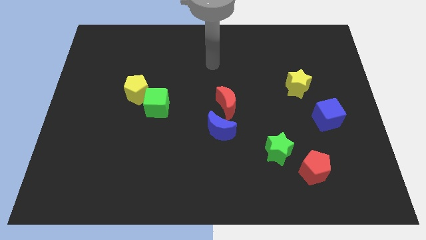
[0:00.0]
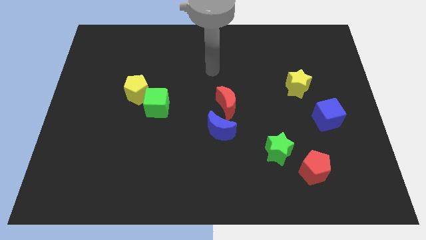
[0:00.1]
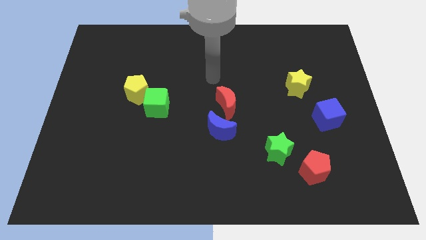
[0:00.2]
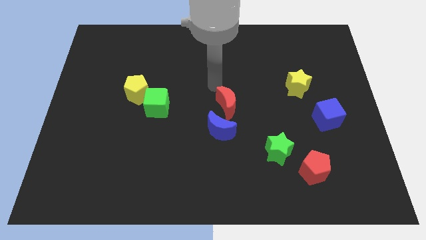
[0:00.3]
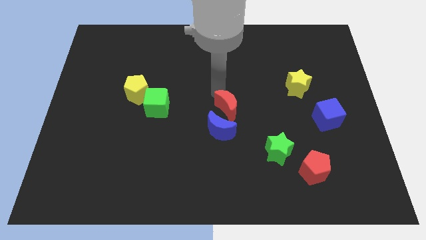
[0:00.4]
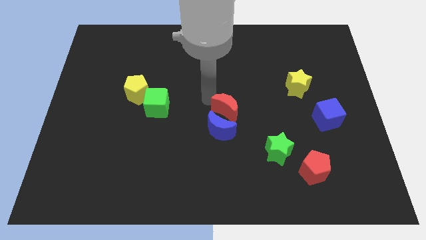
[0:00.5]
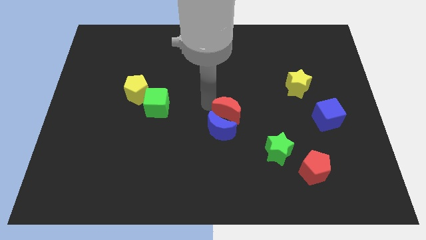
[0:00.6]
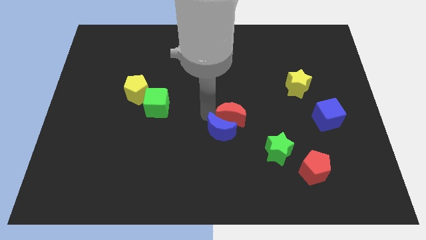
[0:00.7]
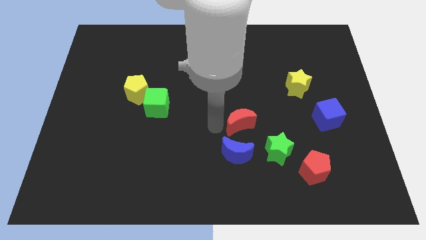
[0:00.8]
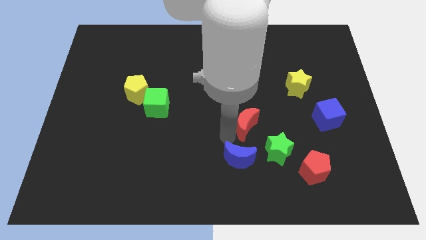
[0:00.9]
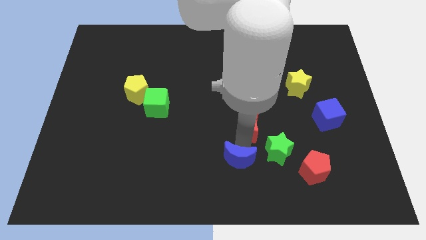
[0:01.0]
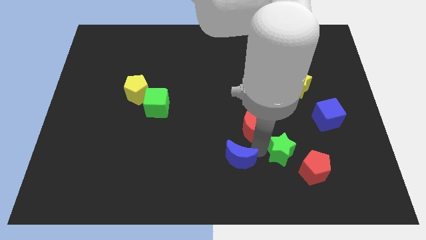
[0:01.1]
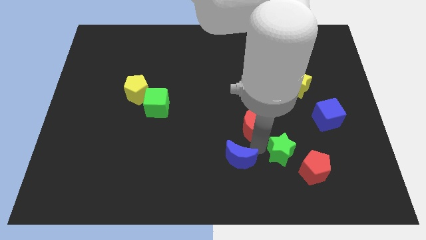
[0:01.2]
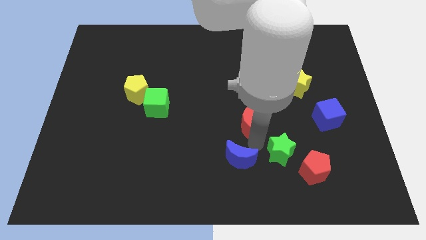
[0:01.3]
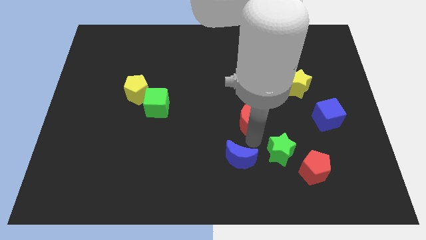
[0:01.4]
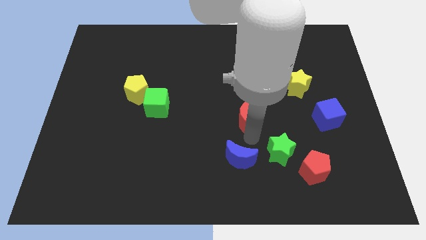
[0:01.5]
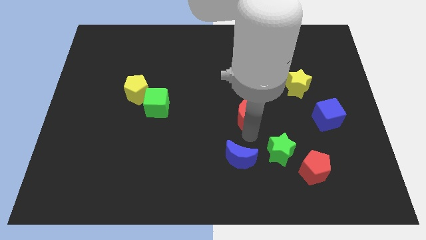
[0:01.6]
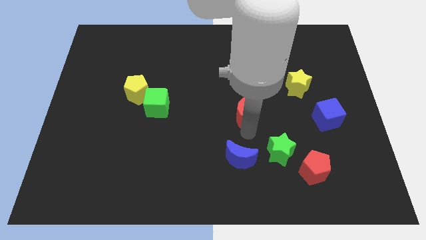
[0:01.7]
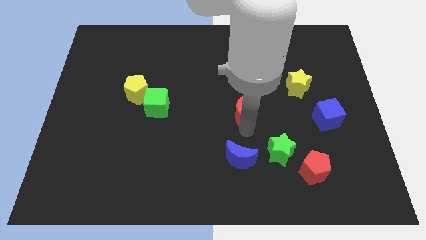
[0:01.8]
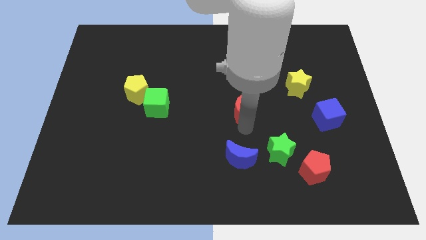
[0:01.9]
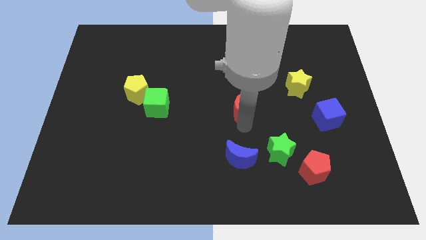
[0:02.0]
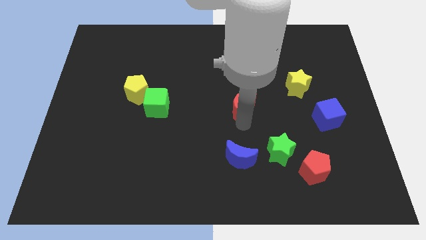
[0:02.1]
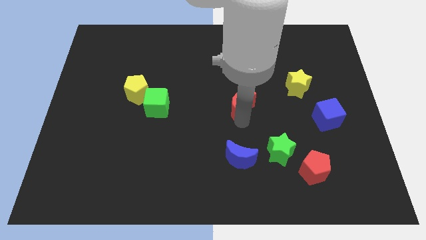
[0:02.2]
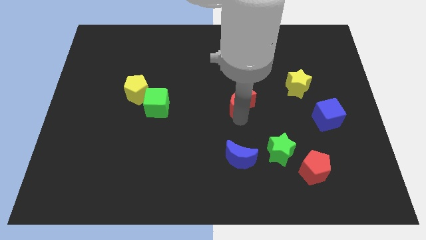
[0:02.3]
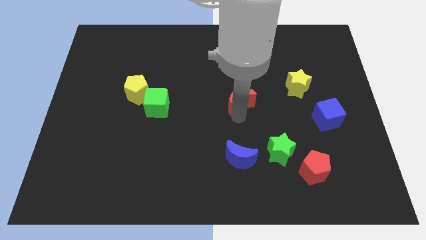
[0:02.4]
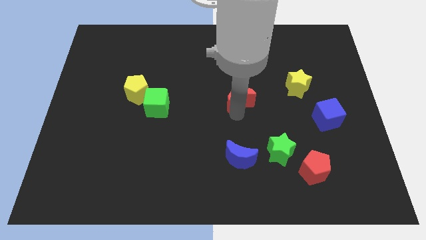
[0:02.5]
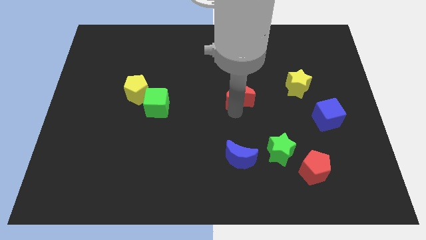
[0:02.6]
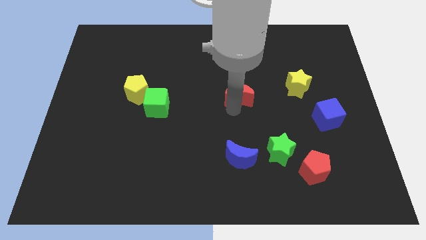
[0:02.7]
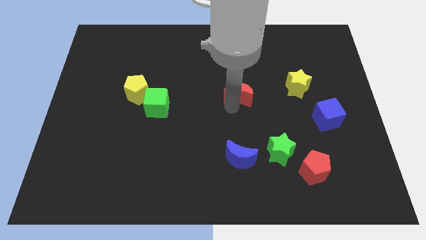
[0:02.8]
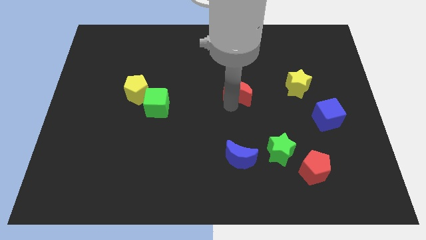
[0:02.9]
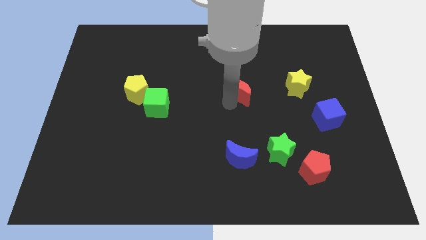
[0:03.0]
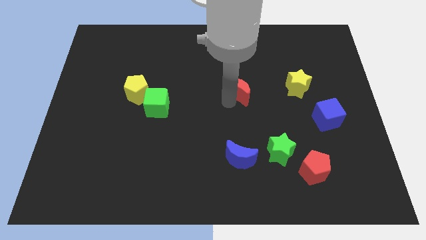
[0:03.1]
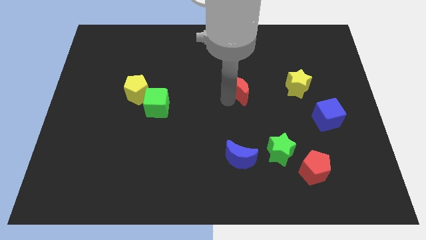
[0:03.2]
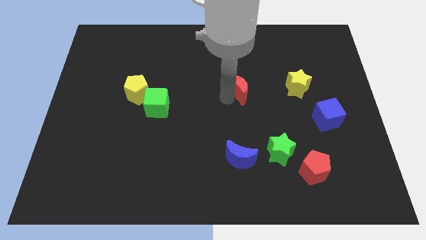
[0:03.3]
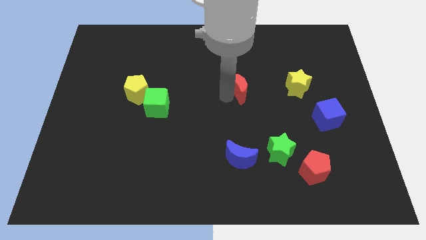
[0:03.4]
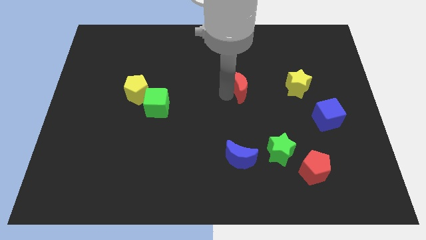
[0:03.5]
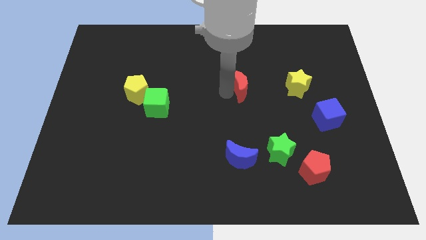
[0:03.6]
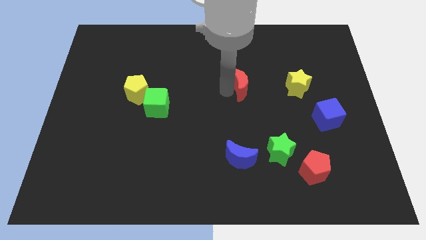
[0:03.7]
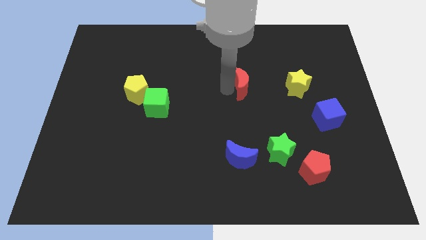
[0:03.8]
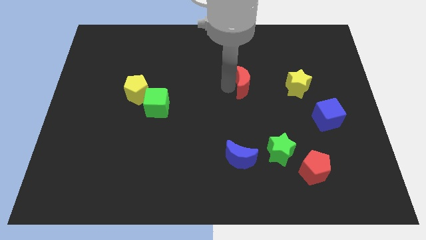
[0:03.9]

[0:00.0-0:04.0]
push the red moon a little upwards and then right

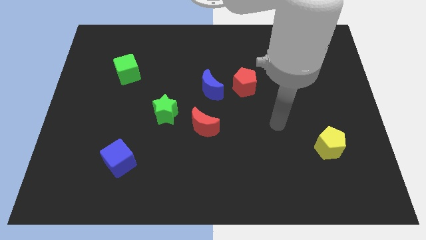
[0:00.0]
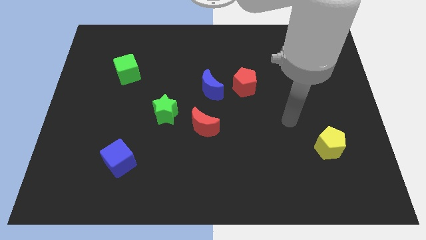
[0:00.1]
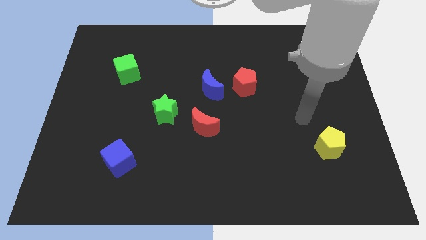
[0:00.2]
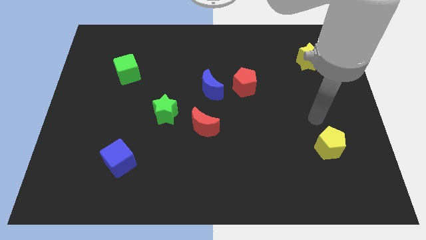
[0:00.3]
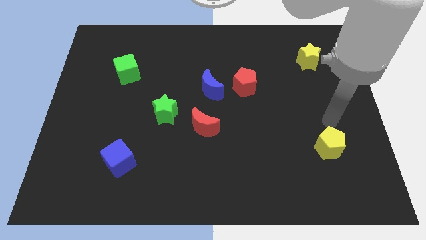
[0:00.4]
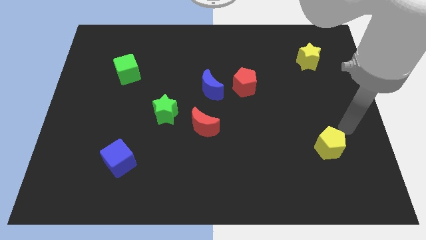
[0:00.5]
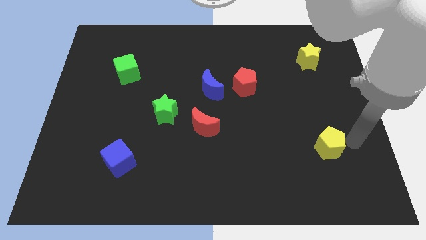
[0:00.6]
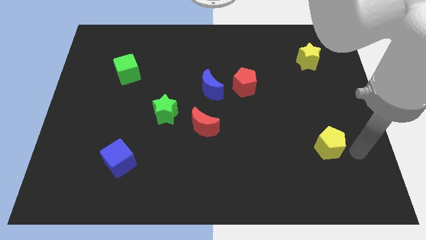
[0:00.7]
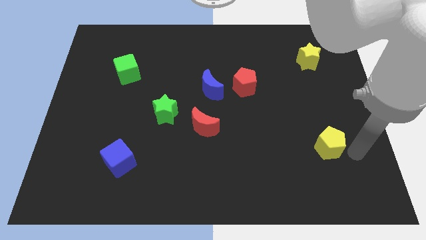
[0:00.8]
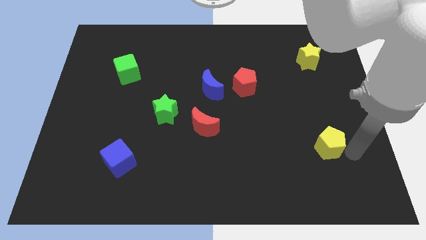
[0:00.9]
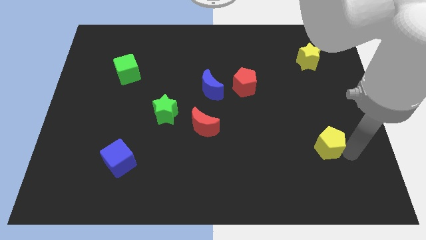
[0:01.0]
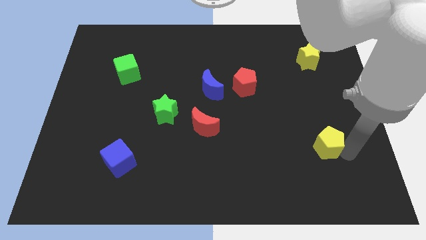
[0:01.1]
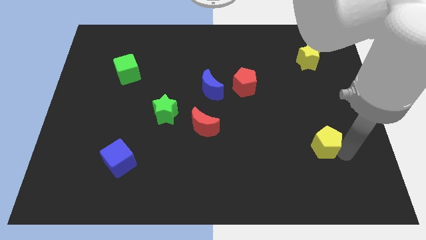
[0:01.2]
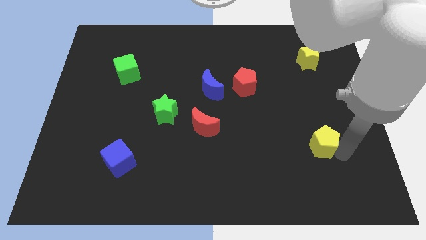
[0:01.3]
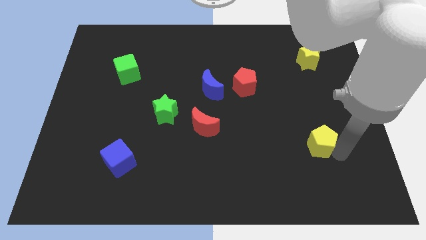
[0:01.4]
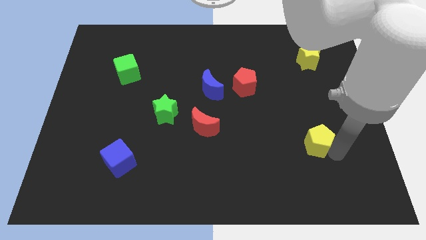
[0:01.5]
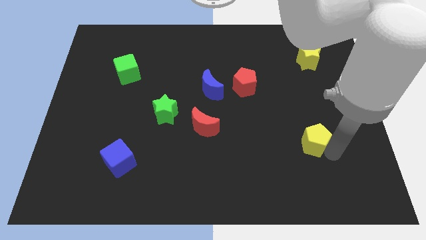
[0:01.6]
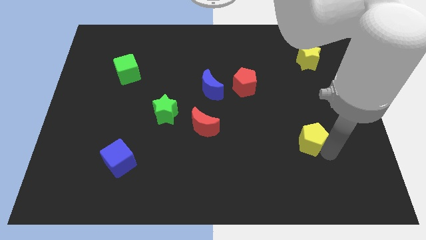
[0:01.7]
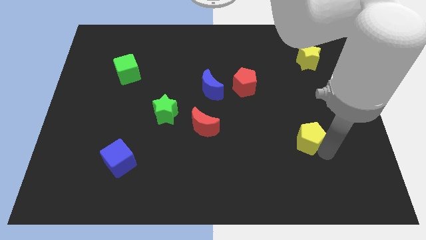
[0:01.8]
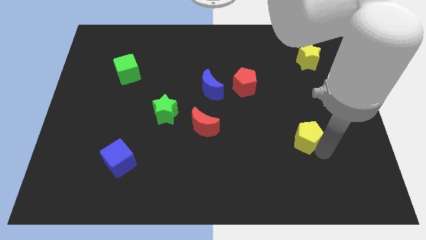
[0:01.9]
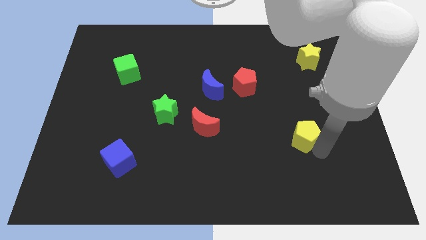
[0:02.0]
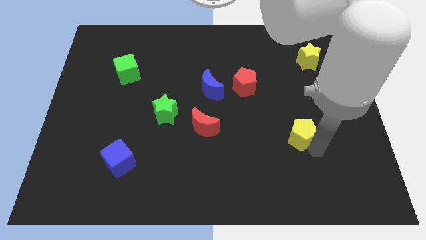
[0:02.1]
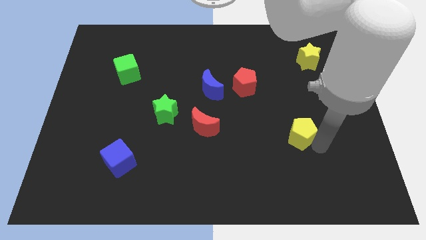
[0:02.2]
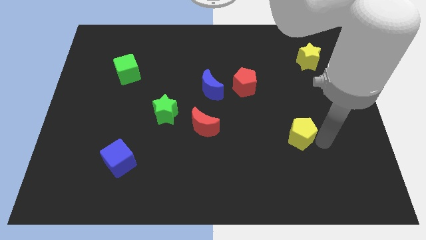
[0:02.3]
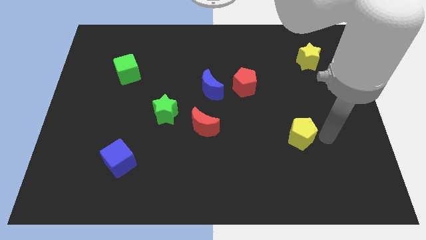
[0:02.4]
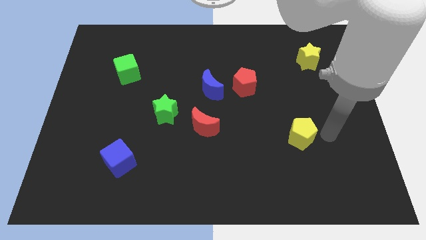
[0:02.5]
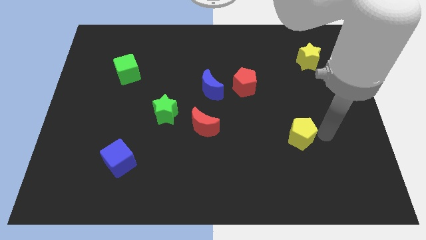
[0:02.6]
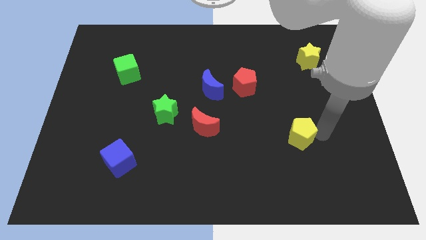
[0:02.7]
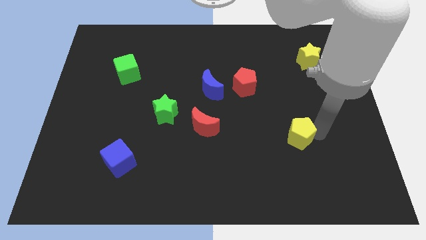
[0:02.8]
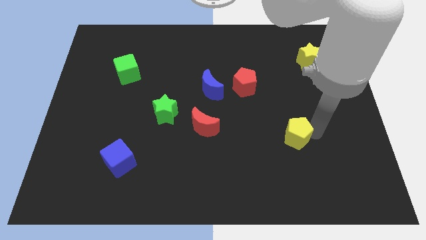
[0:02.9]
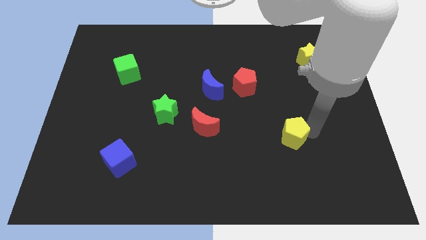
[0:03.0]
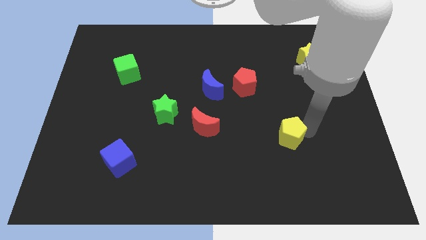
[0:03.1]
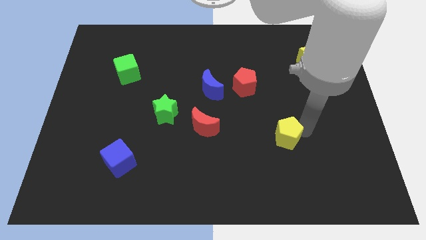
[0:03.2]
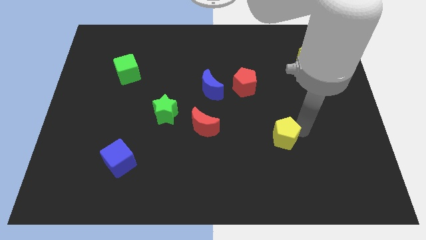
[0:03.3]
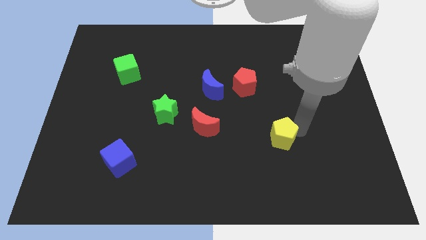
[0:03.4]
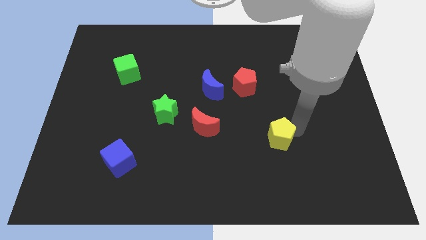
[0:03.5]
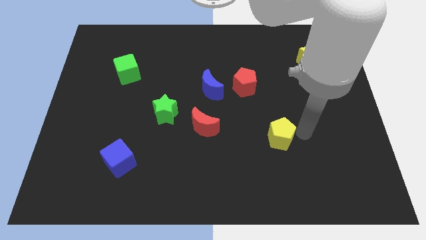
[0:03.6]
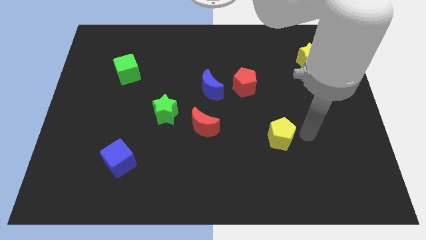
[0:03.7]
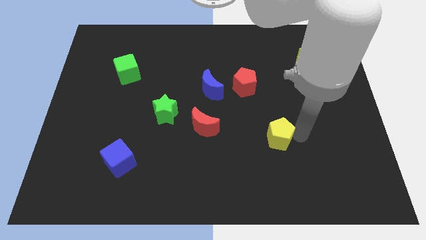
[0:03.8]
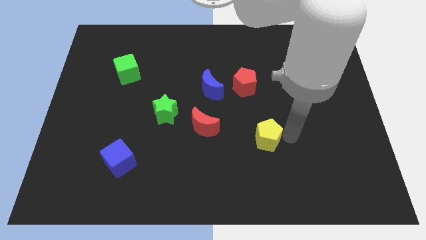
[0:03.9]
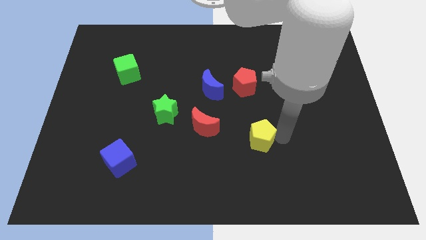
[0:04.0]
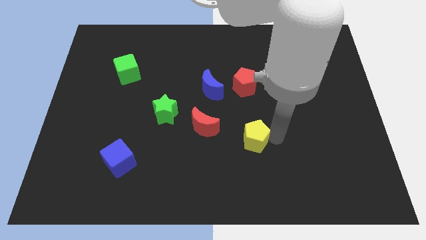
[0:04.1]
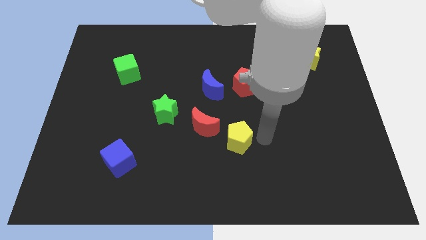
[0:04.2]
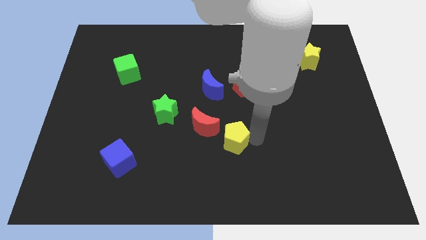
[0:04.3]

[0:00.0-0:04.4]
push the yellow pentagon left

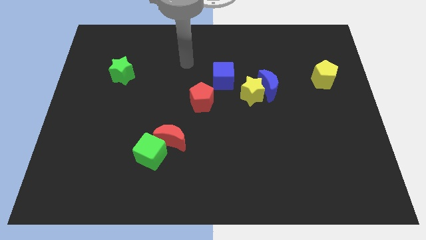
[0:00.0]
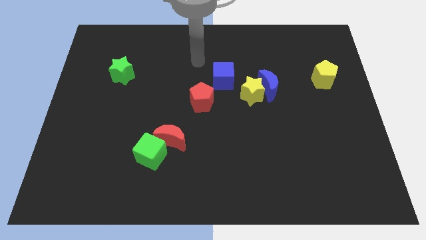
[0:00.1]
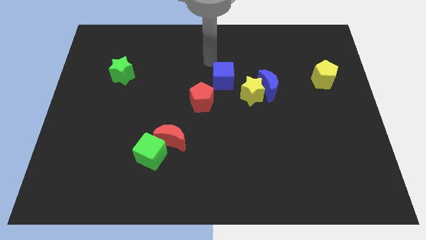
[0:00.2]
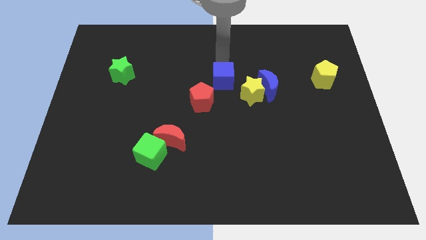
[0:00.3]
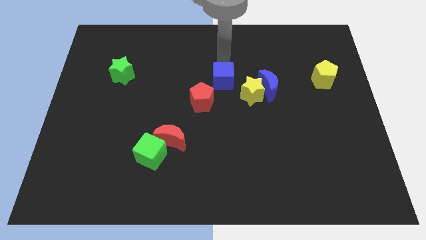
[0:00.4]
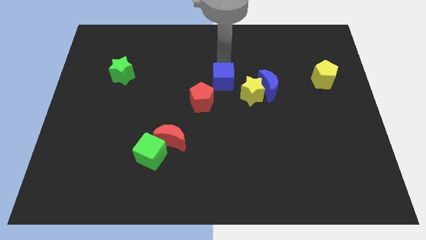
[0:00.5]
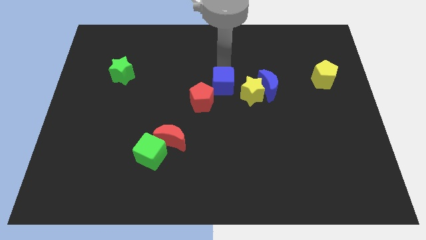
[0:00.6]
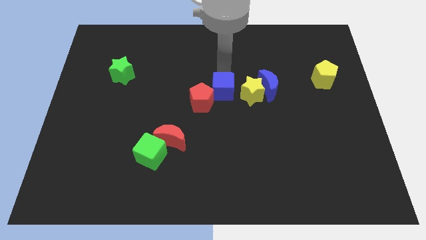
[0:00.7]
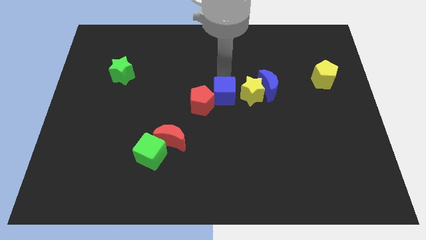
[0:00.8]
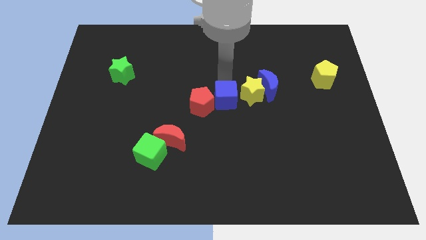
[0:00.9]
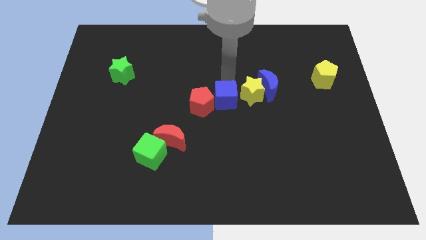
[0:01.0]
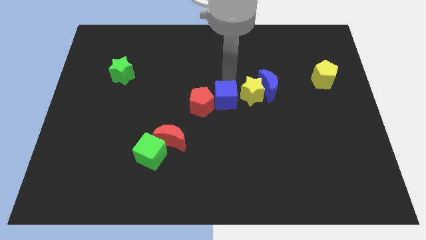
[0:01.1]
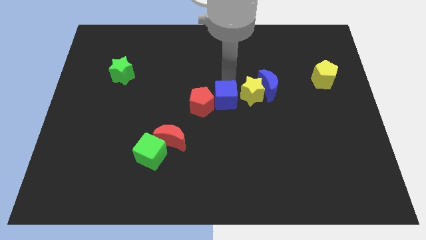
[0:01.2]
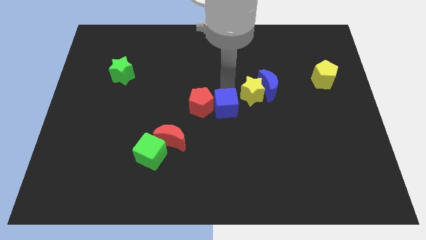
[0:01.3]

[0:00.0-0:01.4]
slide the blue cube slightly downwards
